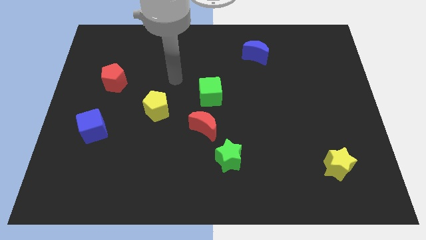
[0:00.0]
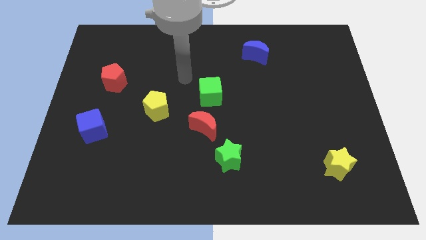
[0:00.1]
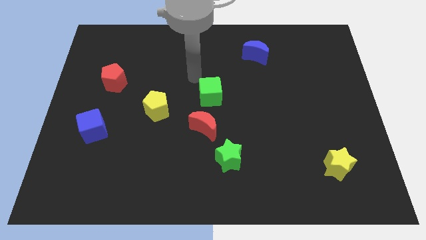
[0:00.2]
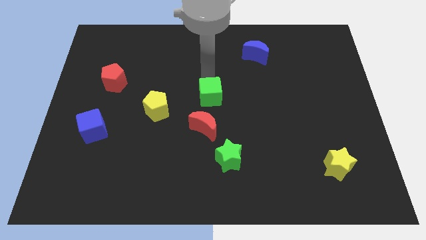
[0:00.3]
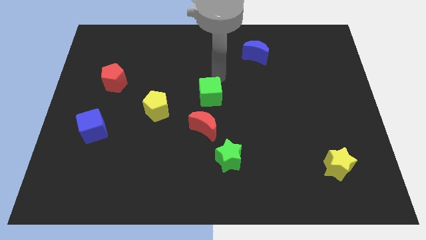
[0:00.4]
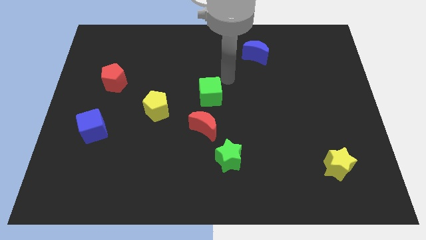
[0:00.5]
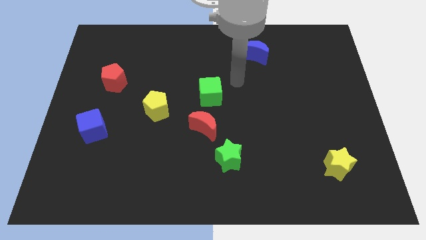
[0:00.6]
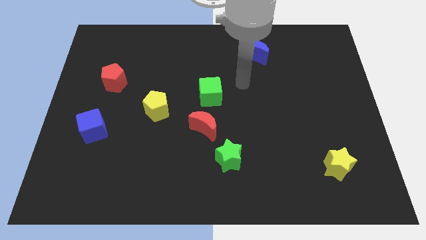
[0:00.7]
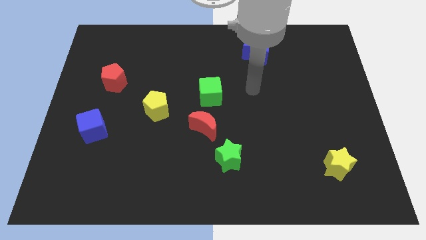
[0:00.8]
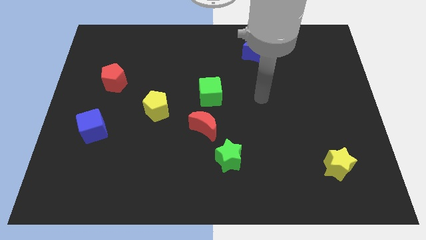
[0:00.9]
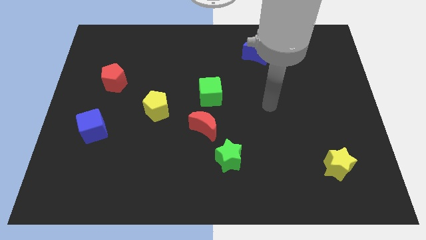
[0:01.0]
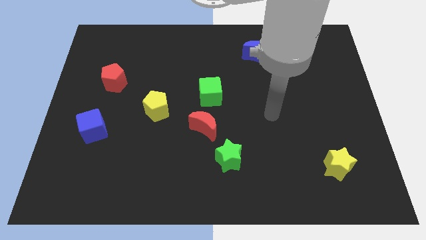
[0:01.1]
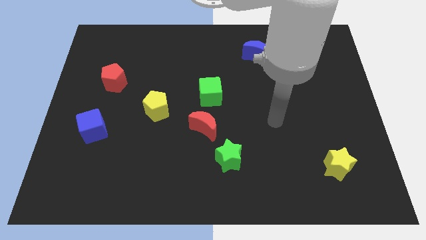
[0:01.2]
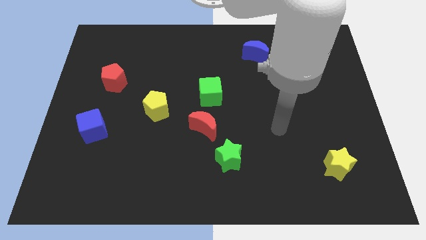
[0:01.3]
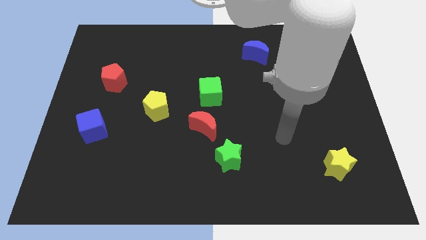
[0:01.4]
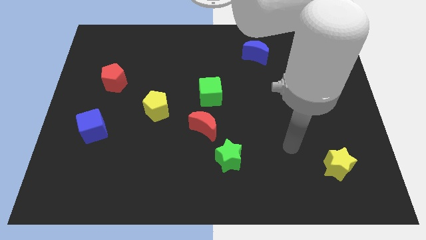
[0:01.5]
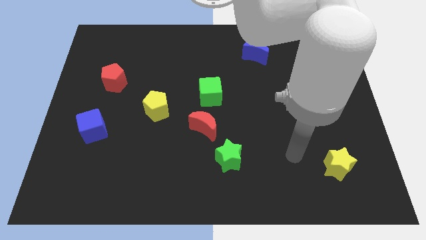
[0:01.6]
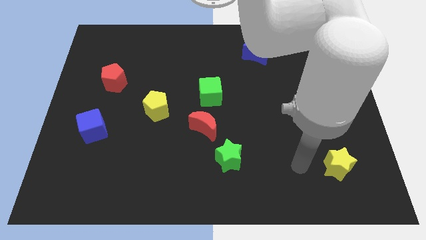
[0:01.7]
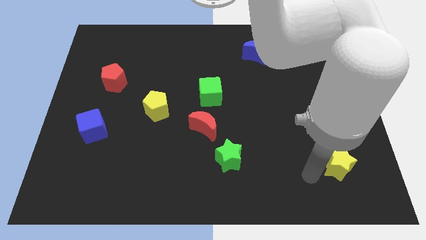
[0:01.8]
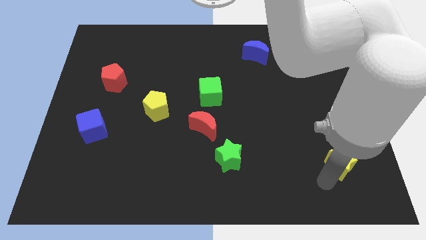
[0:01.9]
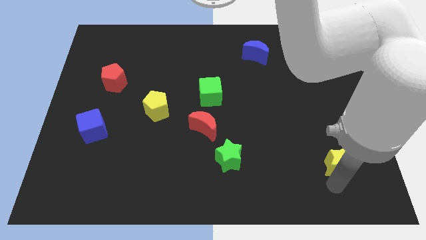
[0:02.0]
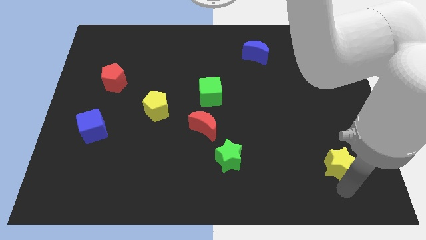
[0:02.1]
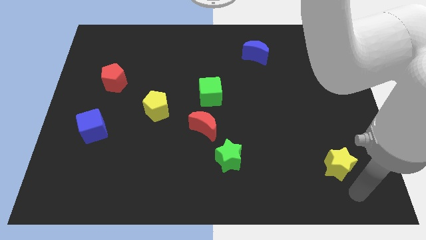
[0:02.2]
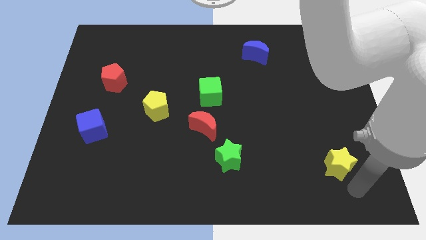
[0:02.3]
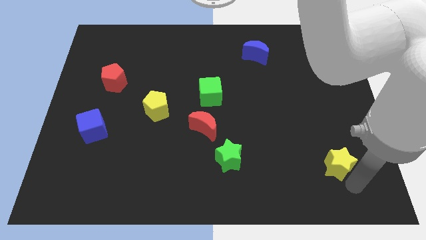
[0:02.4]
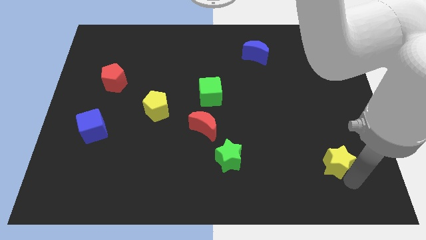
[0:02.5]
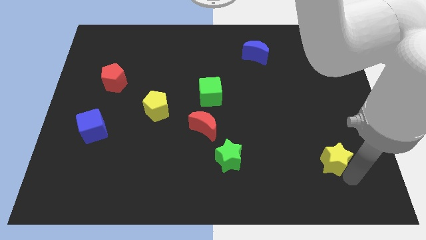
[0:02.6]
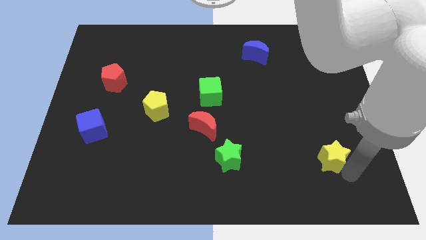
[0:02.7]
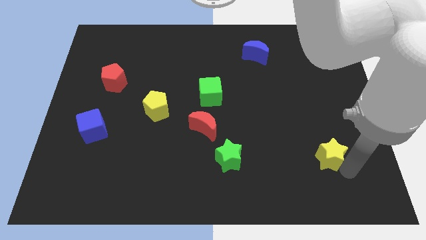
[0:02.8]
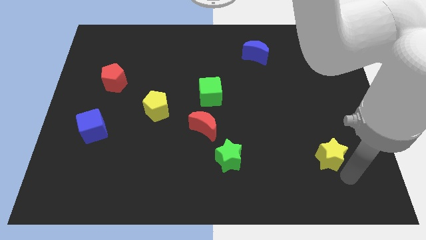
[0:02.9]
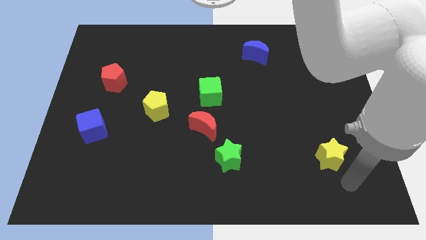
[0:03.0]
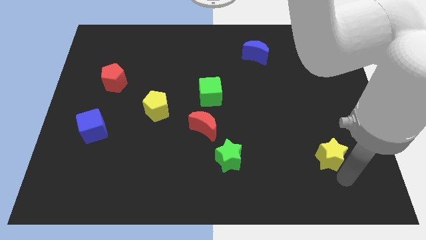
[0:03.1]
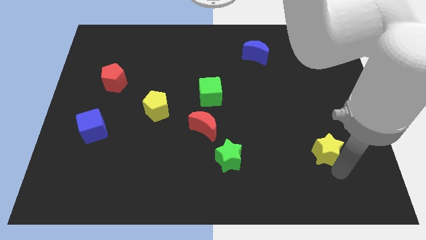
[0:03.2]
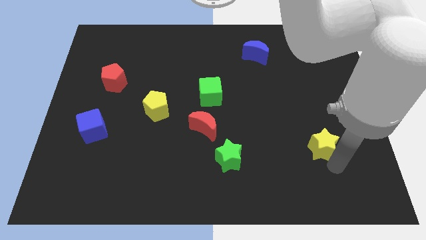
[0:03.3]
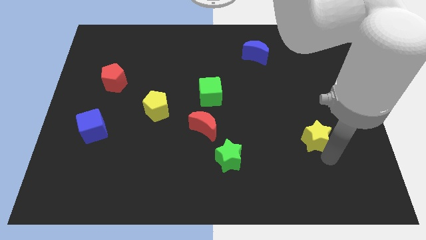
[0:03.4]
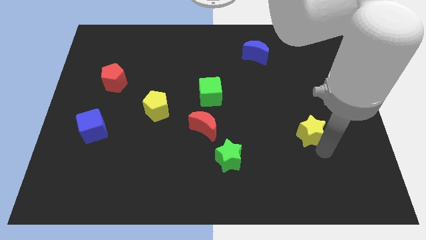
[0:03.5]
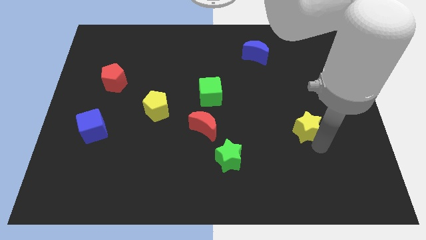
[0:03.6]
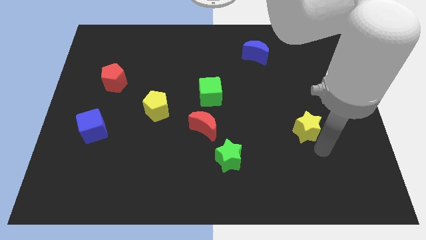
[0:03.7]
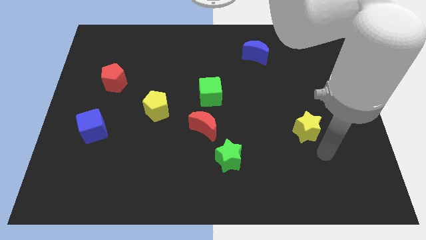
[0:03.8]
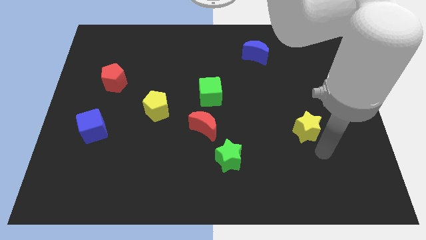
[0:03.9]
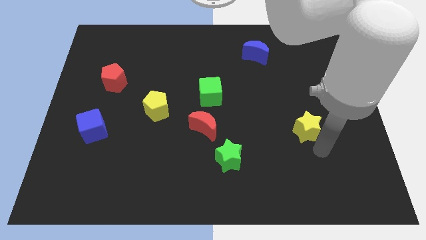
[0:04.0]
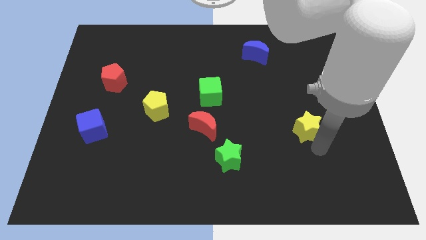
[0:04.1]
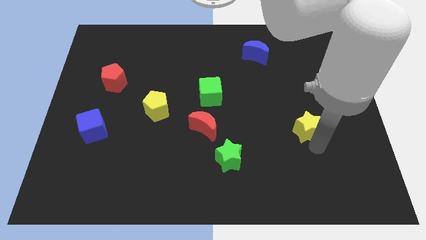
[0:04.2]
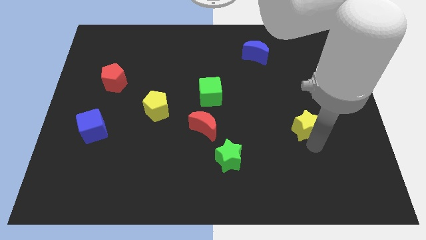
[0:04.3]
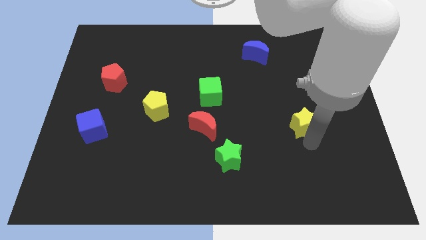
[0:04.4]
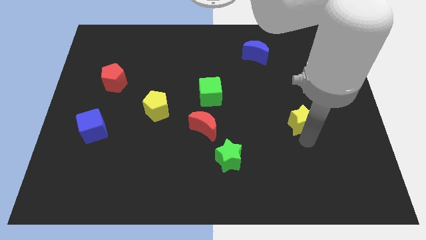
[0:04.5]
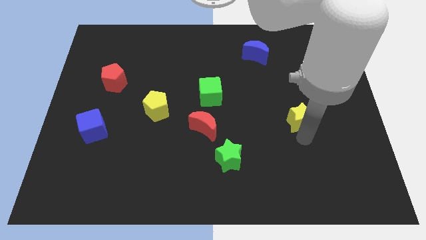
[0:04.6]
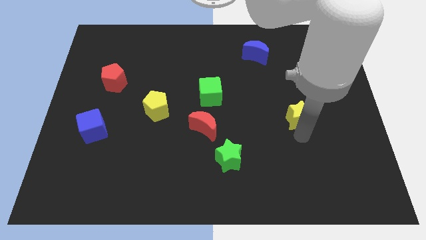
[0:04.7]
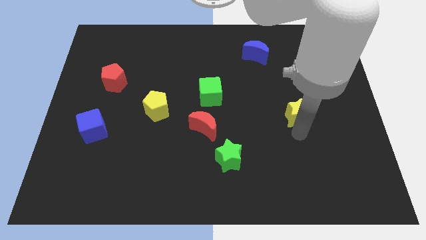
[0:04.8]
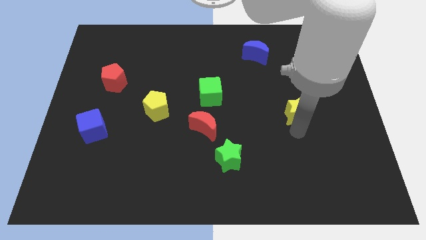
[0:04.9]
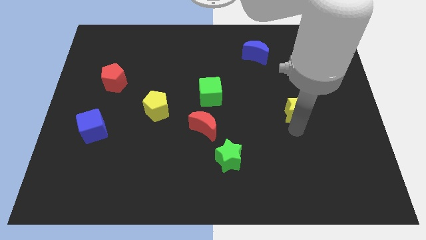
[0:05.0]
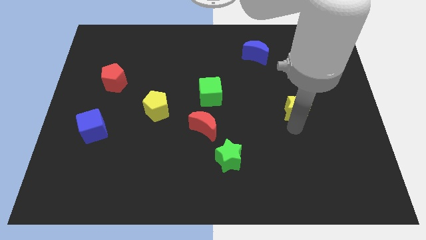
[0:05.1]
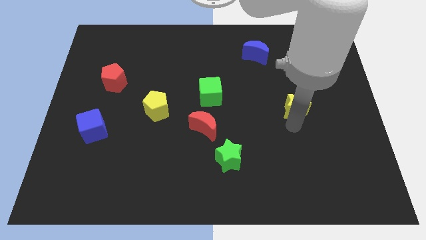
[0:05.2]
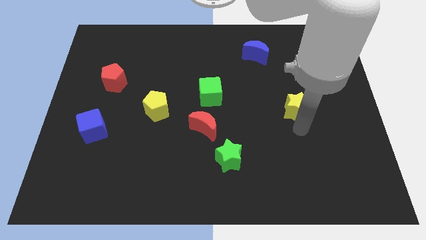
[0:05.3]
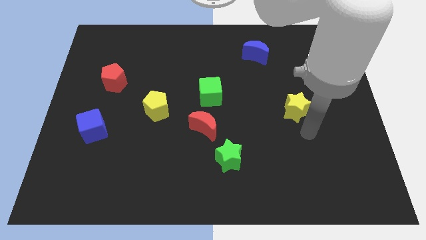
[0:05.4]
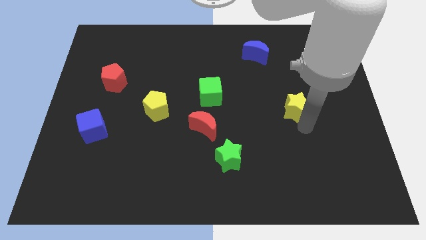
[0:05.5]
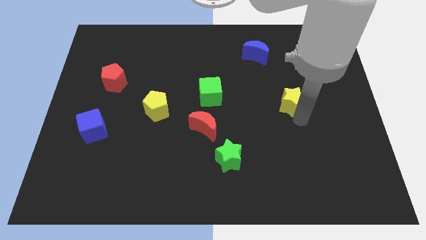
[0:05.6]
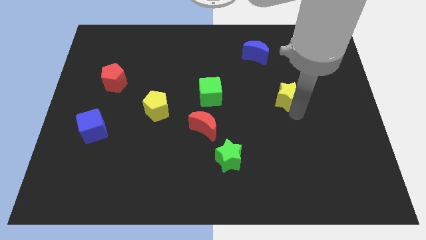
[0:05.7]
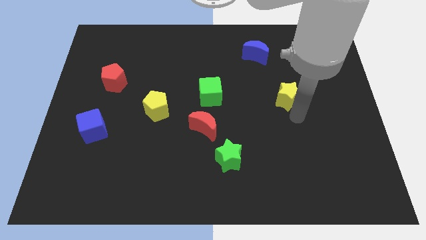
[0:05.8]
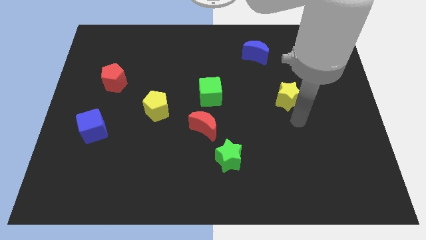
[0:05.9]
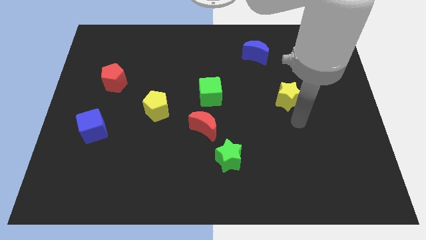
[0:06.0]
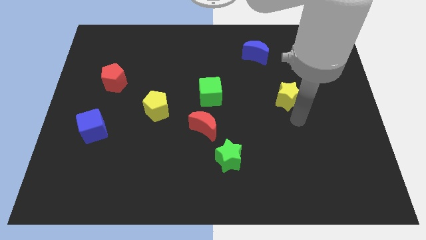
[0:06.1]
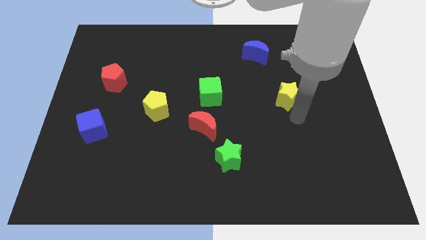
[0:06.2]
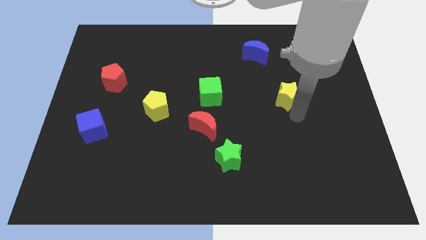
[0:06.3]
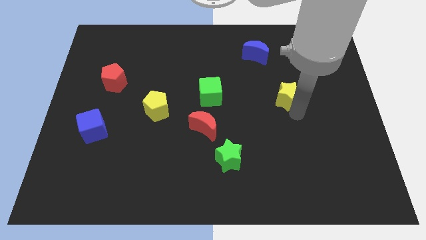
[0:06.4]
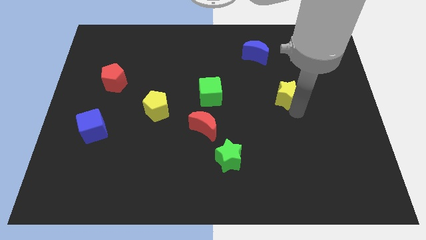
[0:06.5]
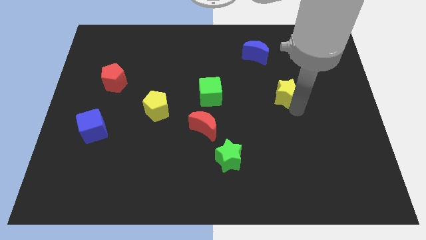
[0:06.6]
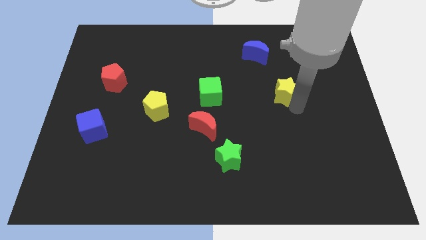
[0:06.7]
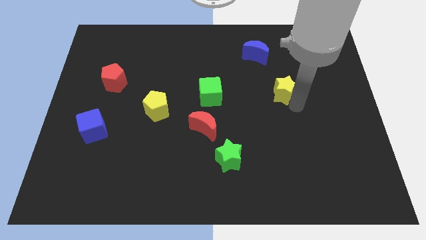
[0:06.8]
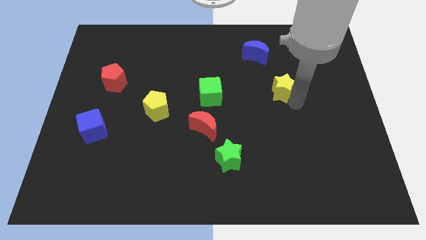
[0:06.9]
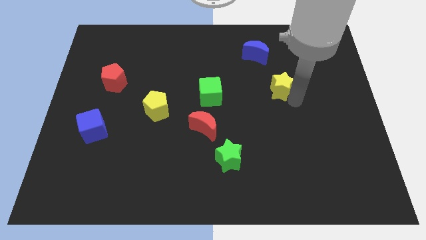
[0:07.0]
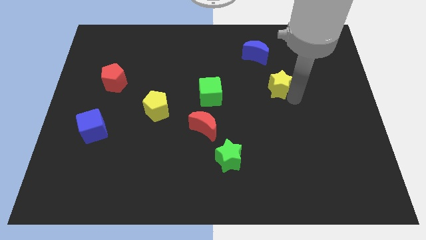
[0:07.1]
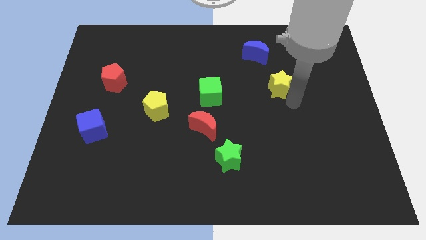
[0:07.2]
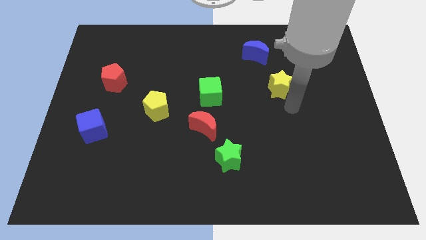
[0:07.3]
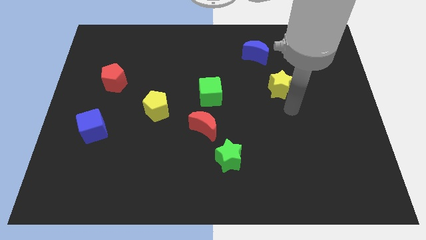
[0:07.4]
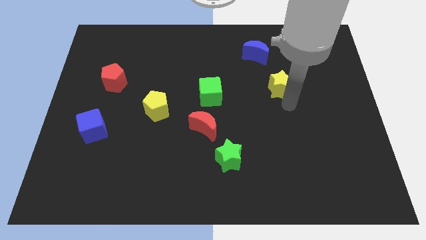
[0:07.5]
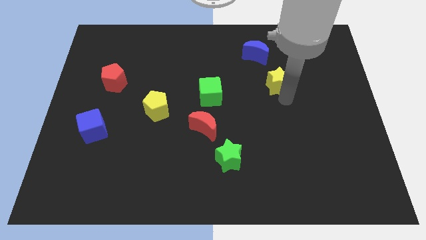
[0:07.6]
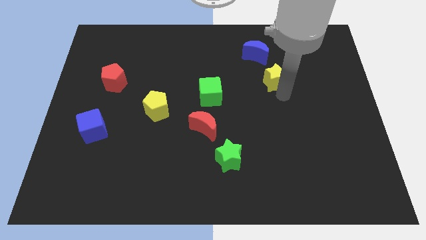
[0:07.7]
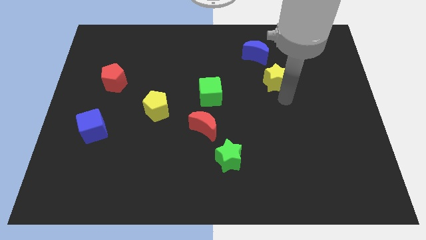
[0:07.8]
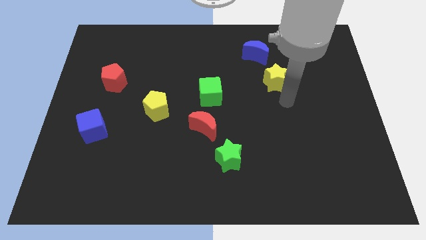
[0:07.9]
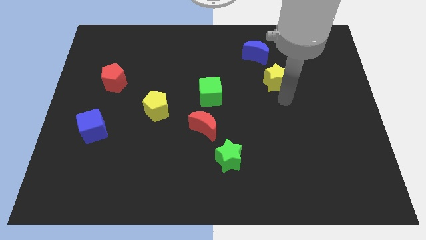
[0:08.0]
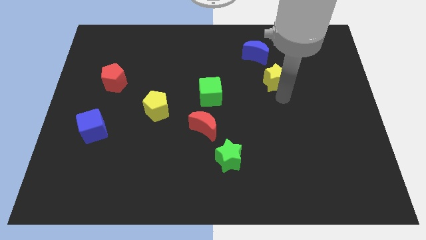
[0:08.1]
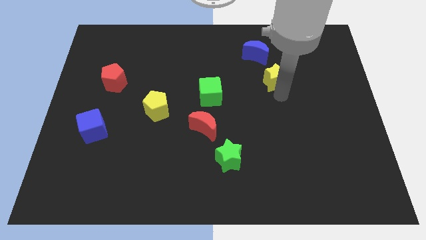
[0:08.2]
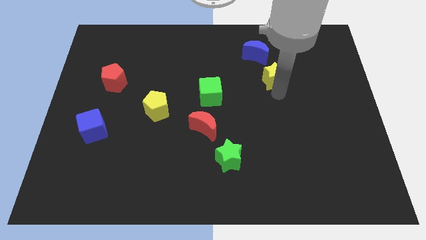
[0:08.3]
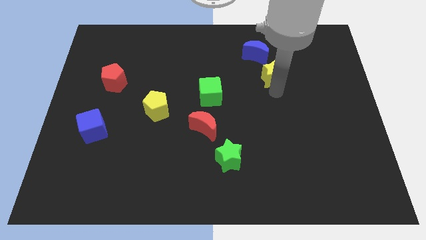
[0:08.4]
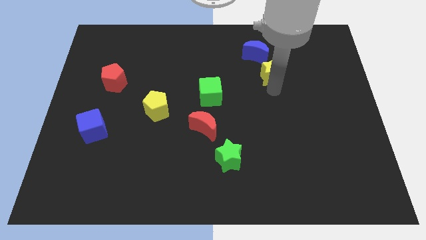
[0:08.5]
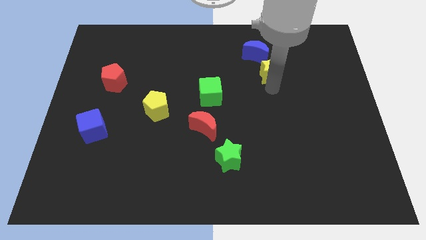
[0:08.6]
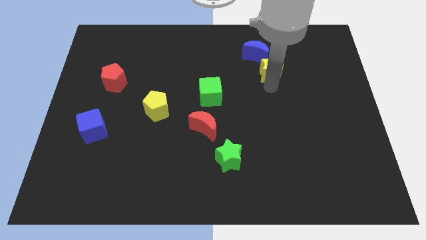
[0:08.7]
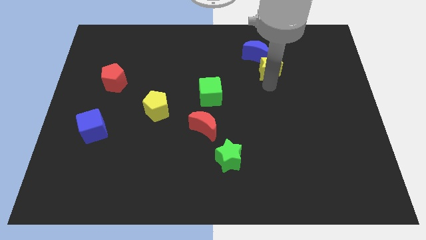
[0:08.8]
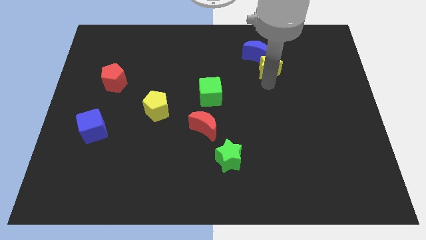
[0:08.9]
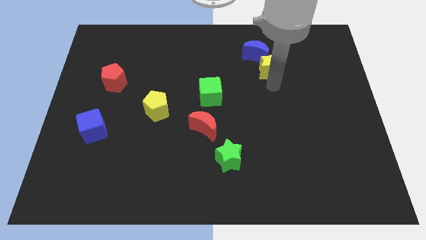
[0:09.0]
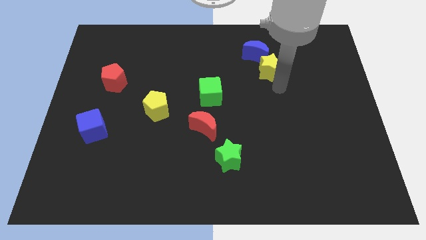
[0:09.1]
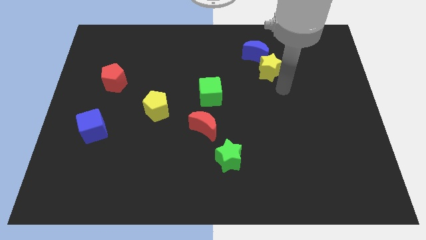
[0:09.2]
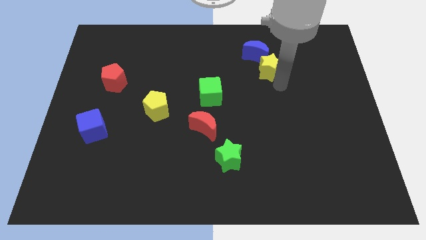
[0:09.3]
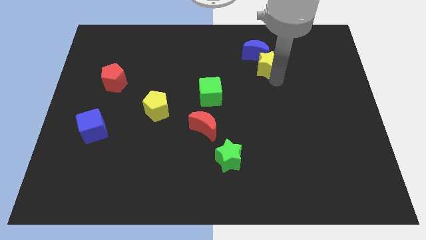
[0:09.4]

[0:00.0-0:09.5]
push the yellow star next to the blue moon
